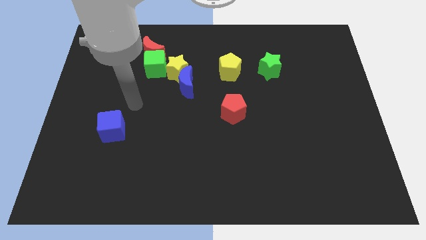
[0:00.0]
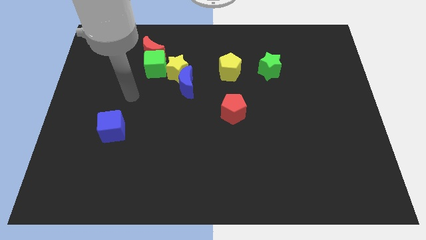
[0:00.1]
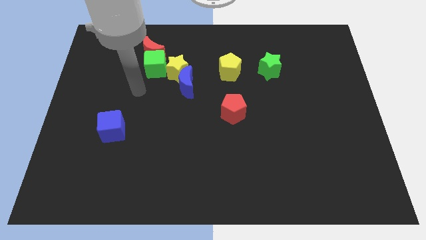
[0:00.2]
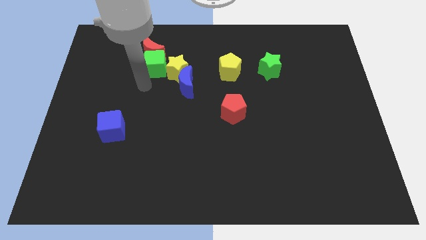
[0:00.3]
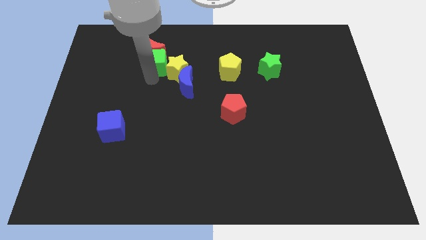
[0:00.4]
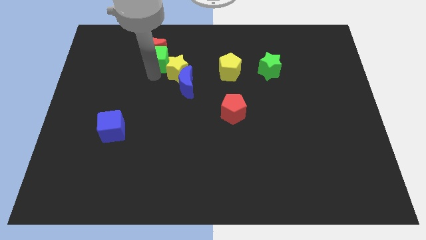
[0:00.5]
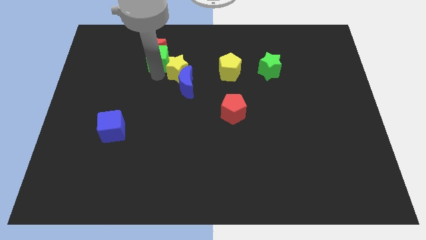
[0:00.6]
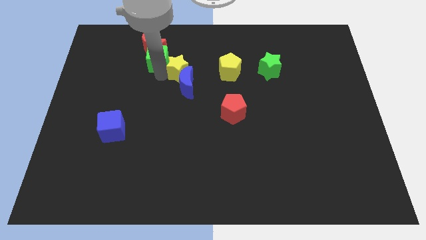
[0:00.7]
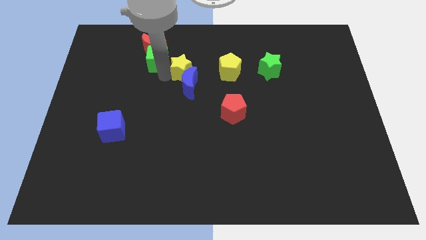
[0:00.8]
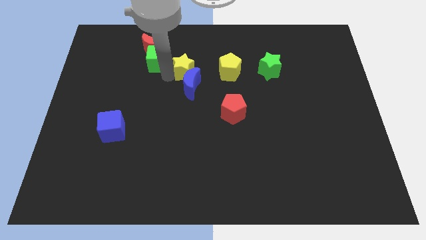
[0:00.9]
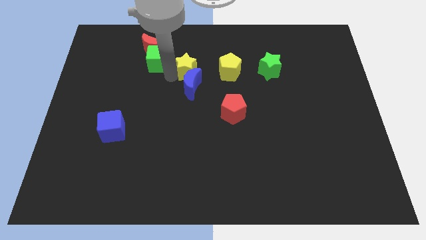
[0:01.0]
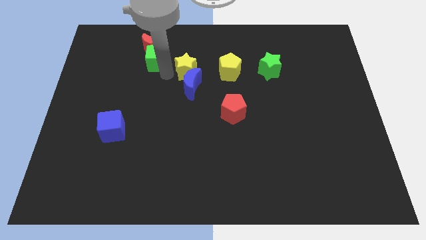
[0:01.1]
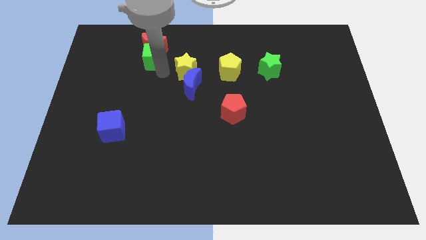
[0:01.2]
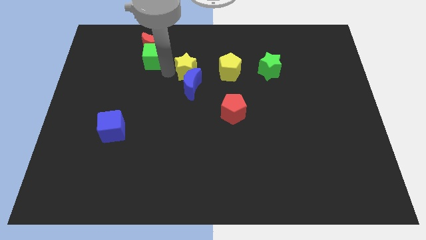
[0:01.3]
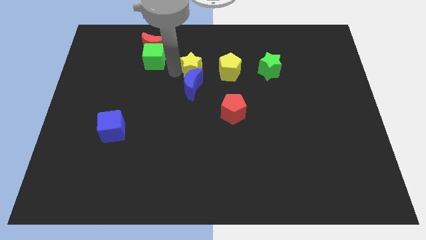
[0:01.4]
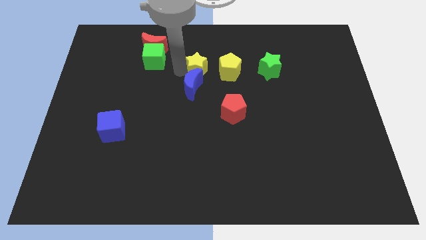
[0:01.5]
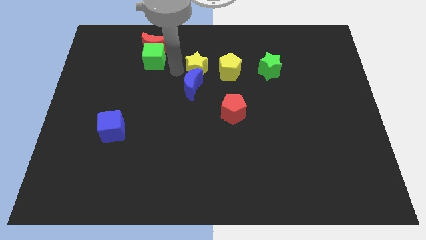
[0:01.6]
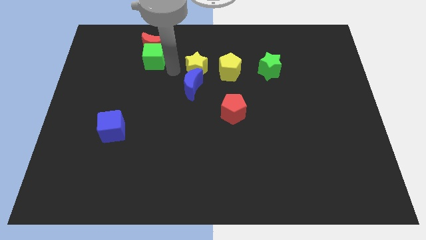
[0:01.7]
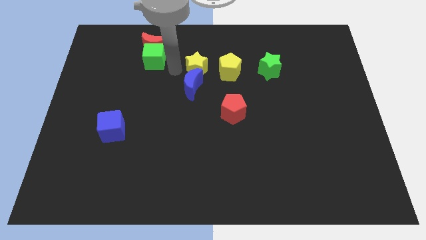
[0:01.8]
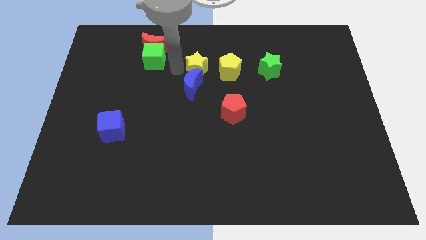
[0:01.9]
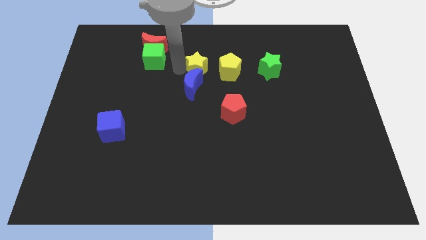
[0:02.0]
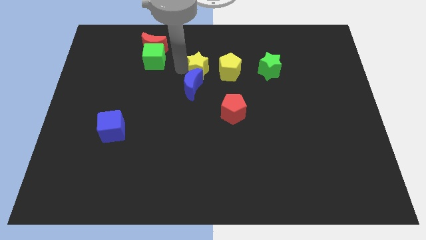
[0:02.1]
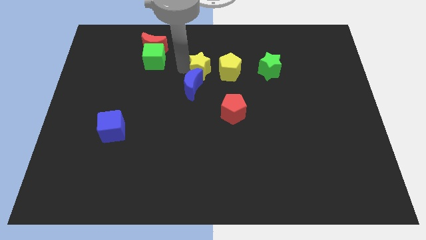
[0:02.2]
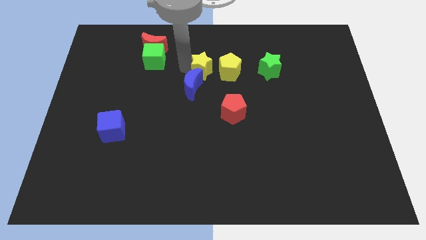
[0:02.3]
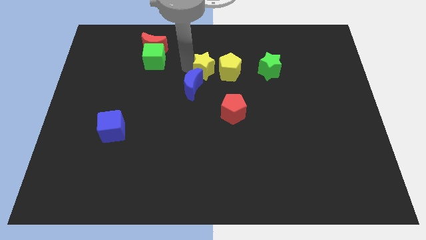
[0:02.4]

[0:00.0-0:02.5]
separate the yellow star from the blue moon, green cube, and red moon

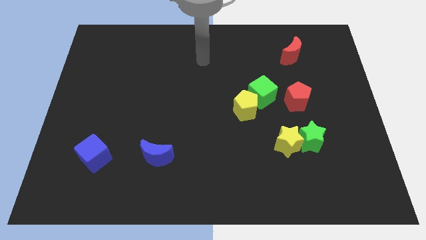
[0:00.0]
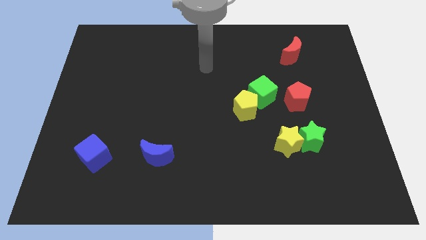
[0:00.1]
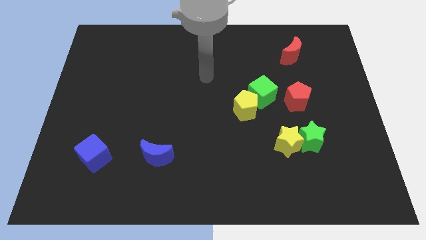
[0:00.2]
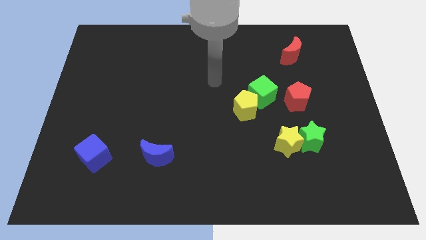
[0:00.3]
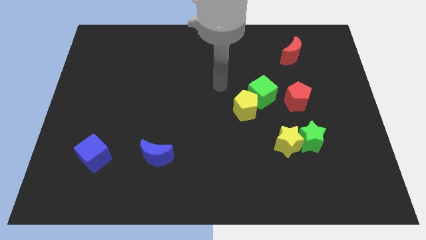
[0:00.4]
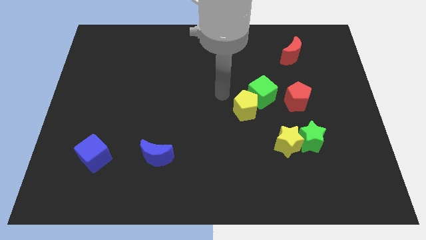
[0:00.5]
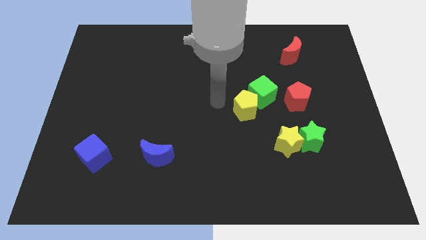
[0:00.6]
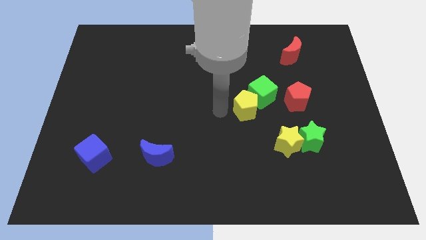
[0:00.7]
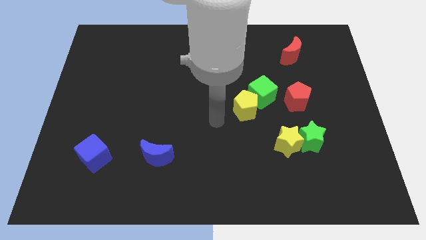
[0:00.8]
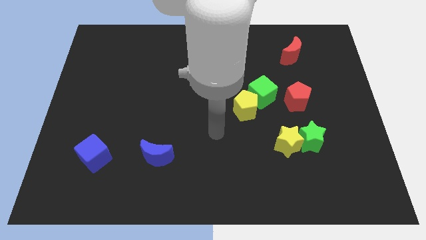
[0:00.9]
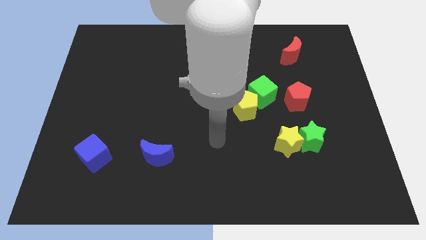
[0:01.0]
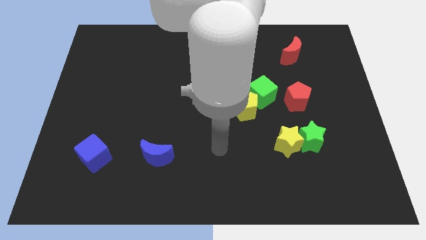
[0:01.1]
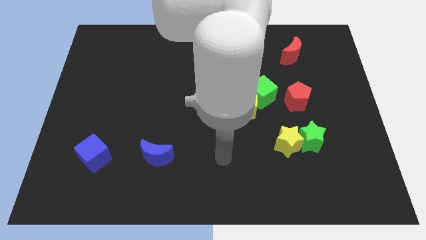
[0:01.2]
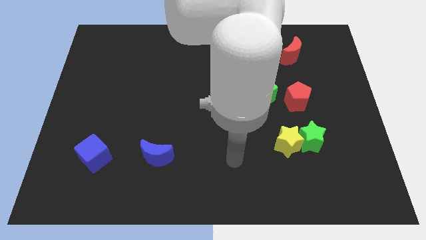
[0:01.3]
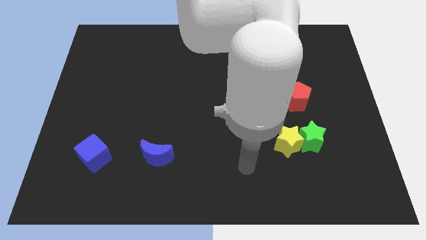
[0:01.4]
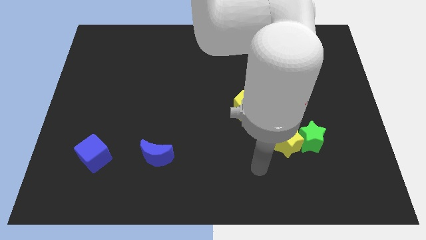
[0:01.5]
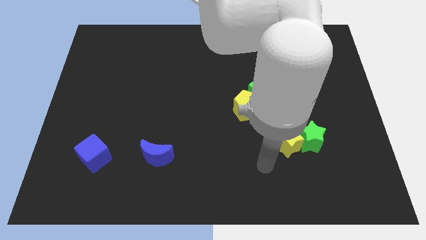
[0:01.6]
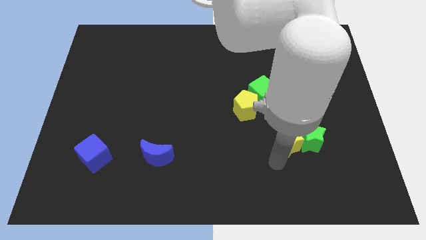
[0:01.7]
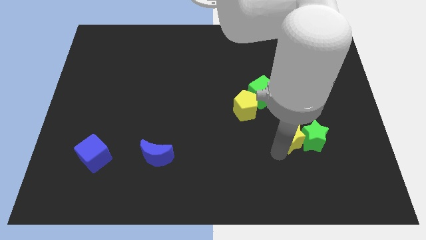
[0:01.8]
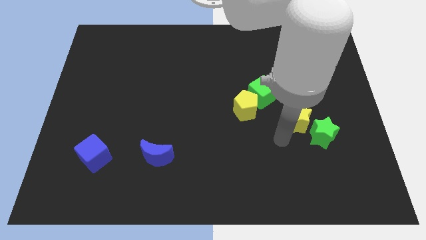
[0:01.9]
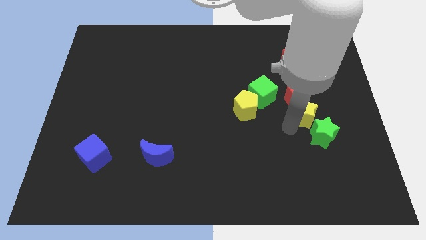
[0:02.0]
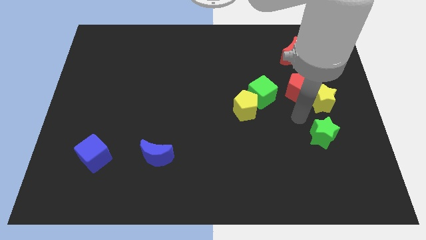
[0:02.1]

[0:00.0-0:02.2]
separate the green star from the yellow star

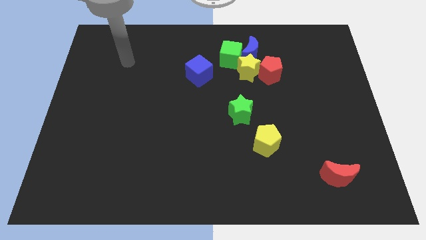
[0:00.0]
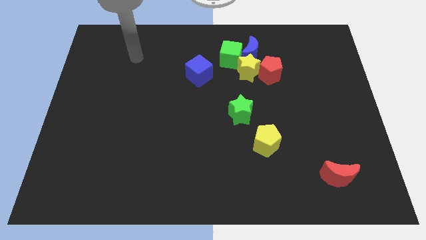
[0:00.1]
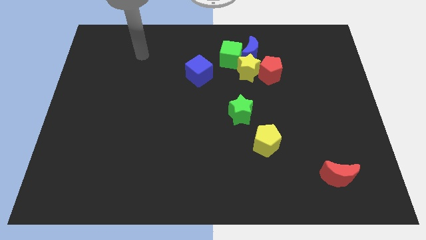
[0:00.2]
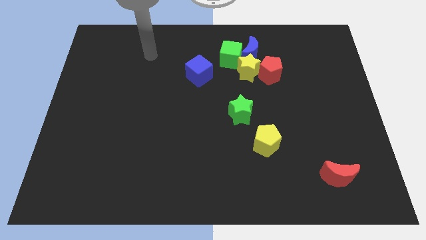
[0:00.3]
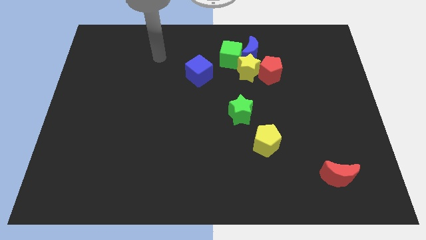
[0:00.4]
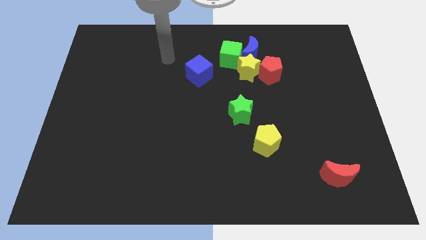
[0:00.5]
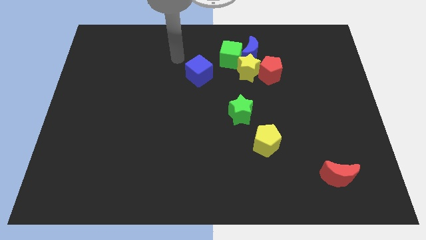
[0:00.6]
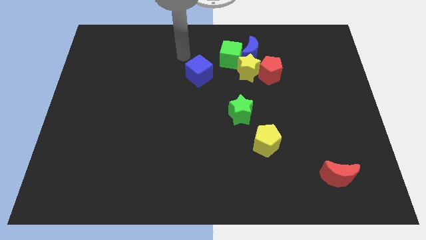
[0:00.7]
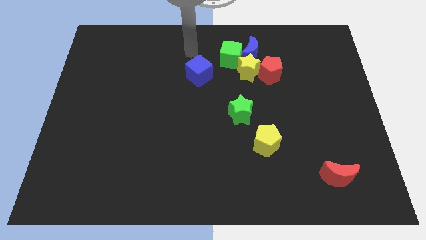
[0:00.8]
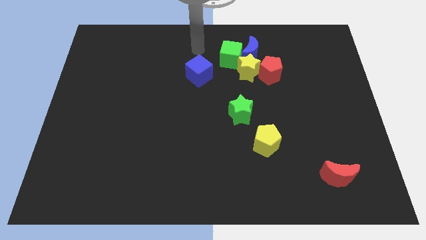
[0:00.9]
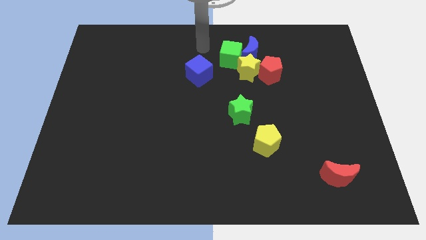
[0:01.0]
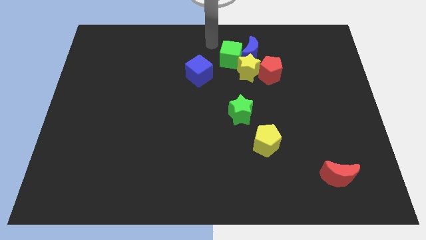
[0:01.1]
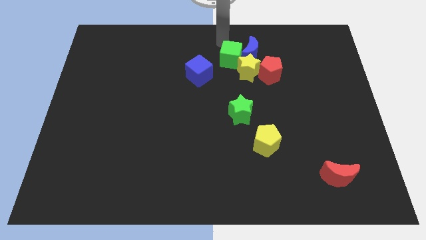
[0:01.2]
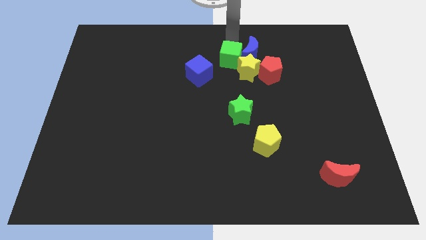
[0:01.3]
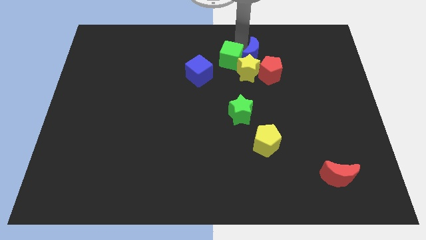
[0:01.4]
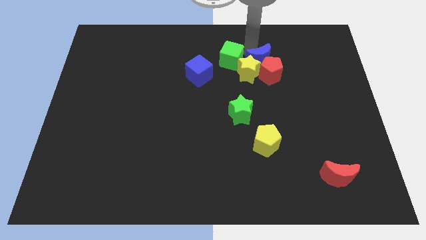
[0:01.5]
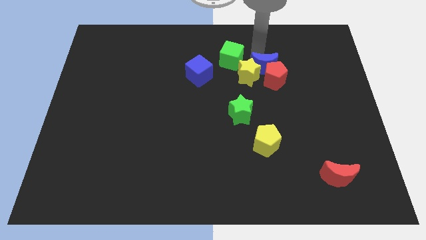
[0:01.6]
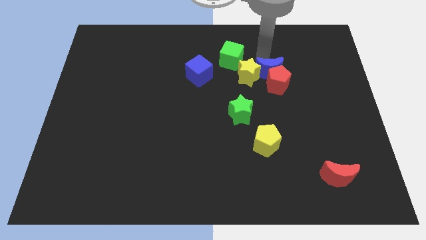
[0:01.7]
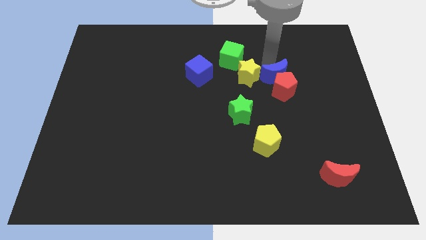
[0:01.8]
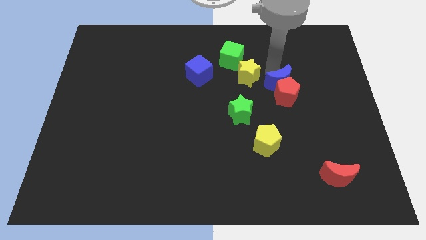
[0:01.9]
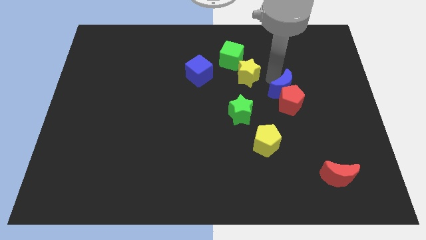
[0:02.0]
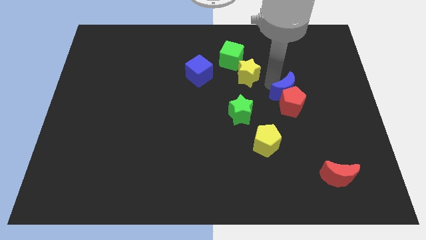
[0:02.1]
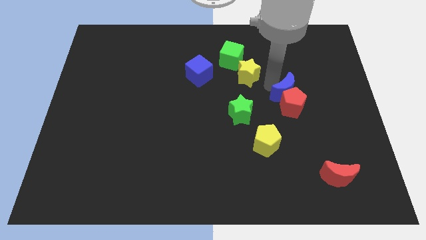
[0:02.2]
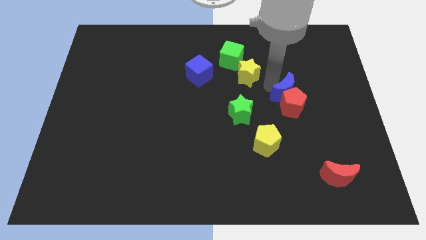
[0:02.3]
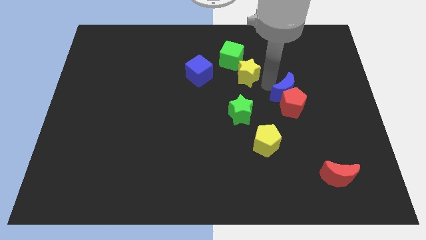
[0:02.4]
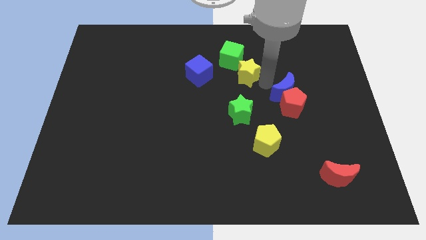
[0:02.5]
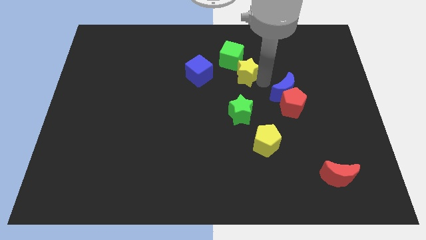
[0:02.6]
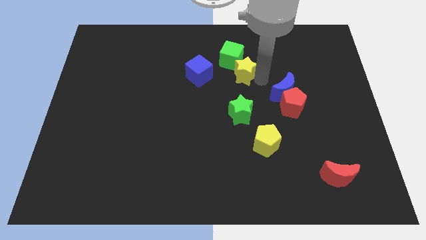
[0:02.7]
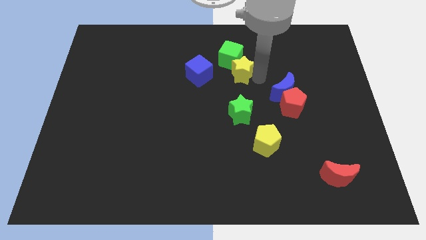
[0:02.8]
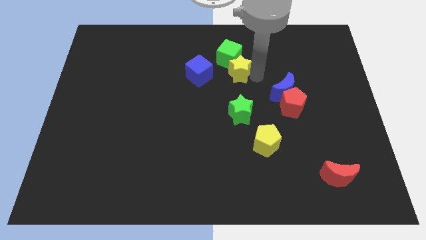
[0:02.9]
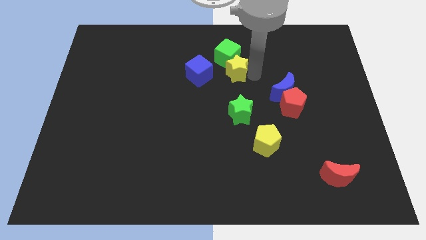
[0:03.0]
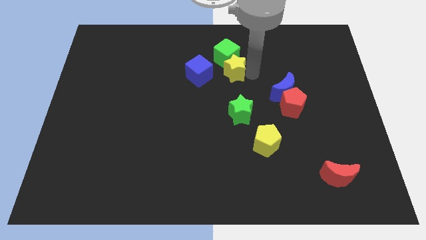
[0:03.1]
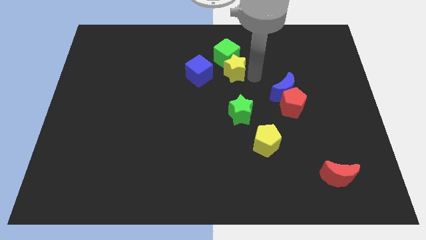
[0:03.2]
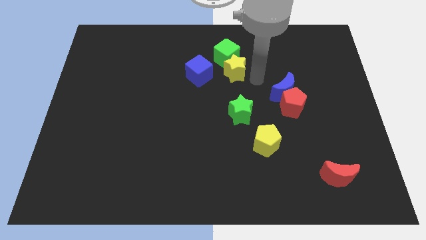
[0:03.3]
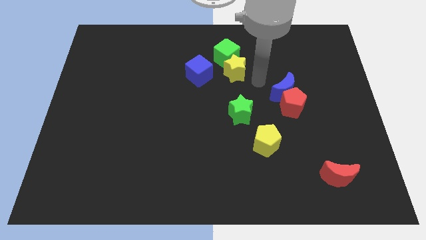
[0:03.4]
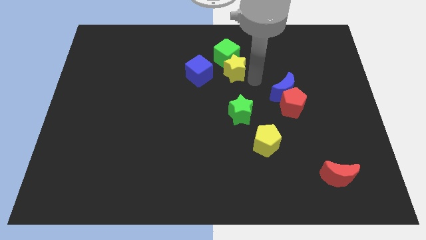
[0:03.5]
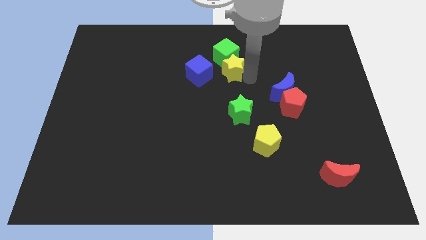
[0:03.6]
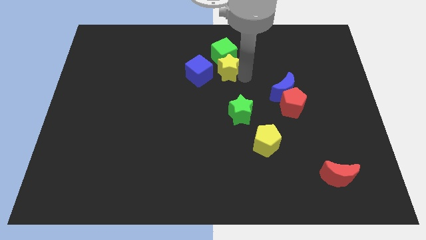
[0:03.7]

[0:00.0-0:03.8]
separate the yellow star from the red pentagon, blue moon, and green cube

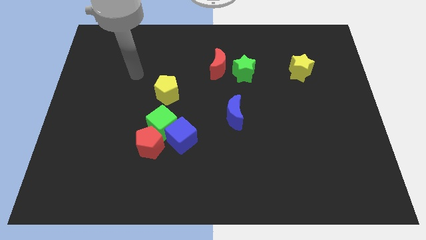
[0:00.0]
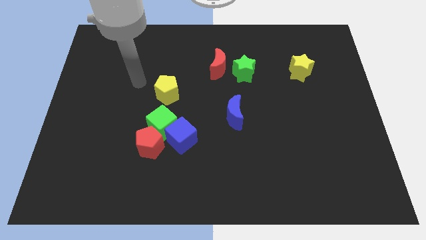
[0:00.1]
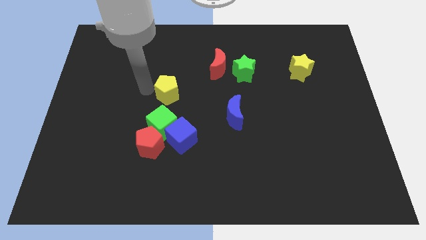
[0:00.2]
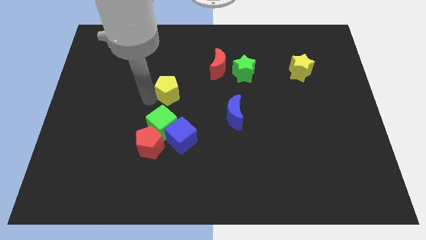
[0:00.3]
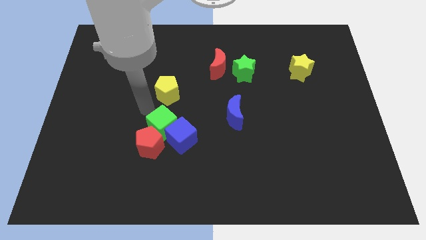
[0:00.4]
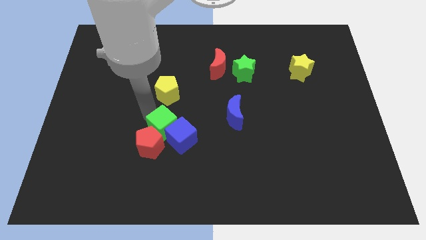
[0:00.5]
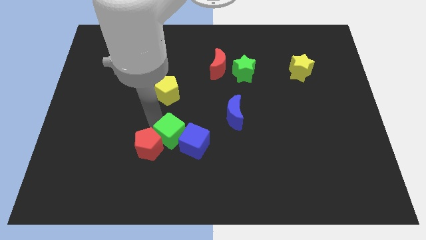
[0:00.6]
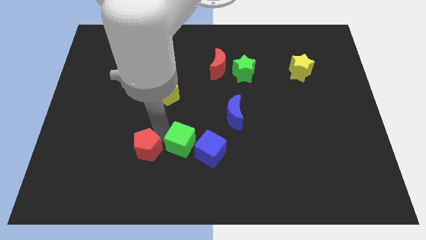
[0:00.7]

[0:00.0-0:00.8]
pull the blue cube apart from the green cube and red pentagon
